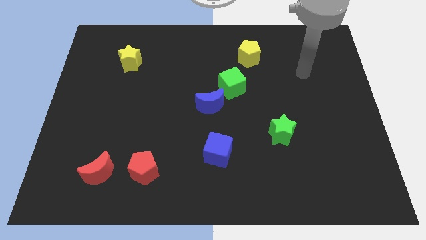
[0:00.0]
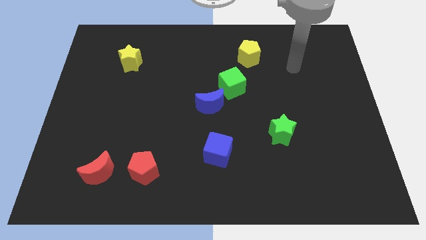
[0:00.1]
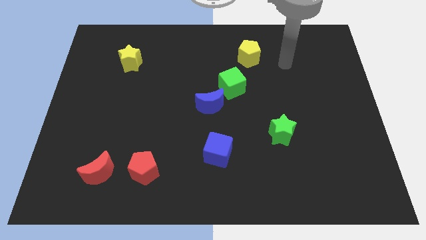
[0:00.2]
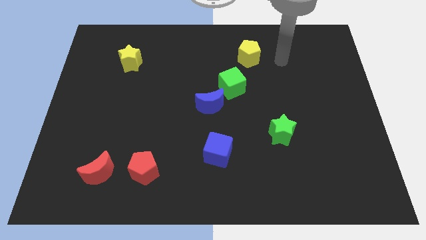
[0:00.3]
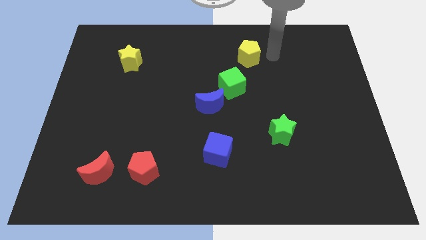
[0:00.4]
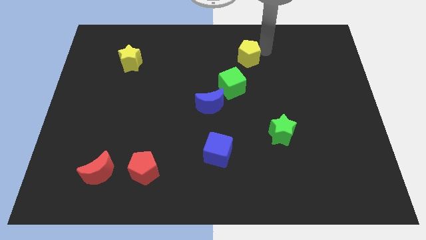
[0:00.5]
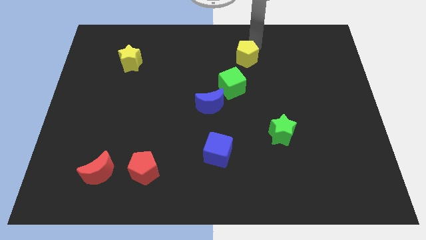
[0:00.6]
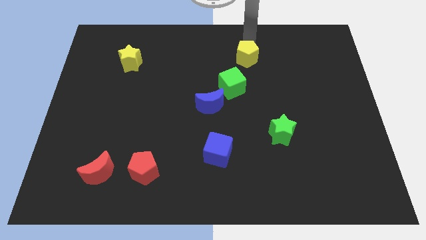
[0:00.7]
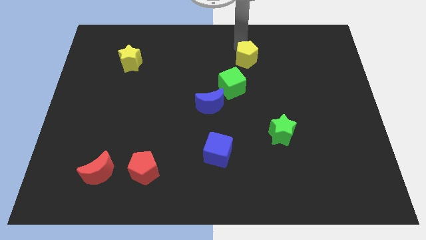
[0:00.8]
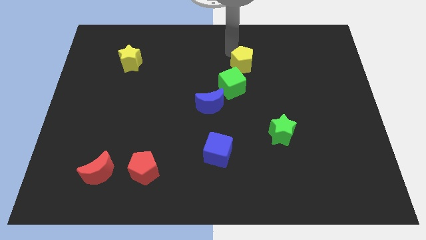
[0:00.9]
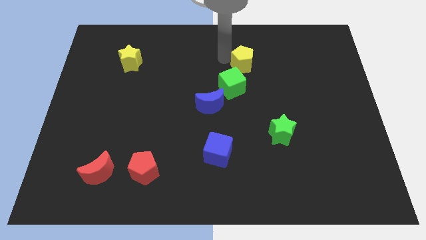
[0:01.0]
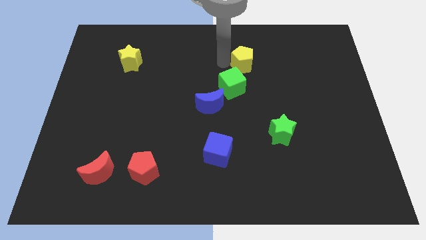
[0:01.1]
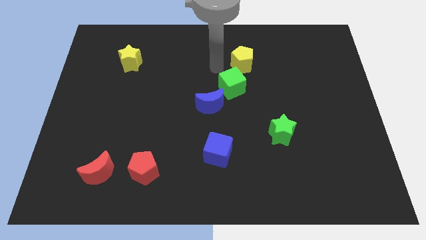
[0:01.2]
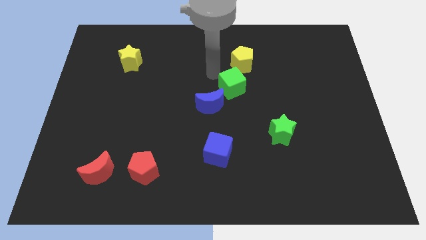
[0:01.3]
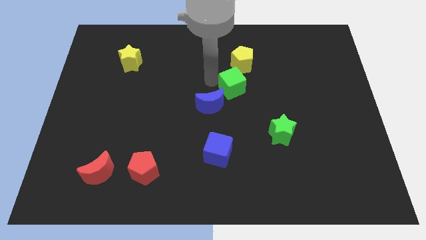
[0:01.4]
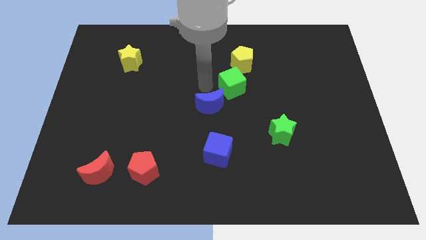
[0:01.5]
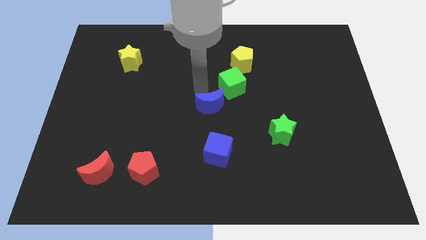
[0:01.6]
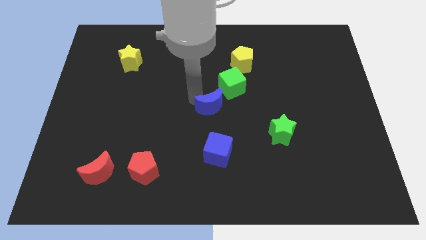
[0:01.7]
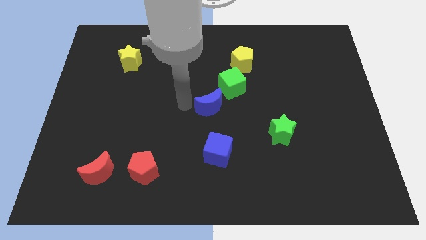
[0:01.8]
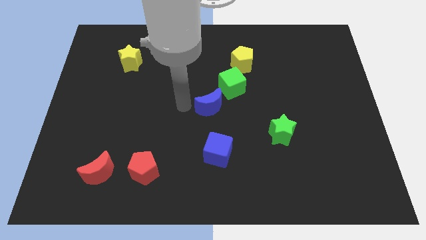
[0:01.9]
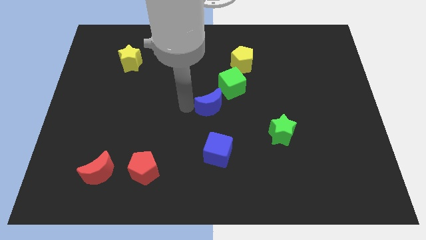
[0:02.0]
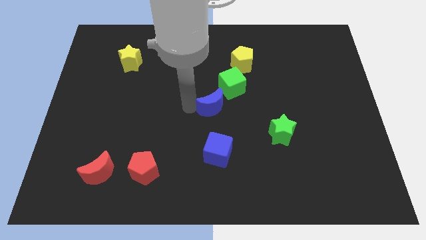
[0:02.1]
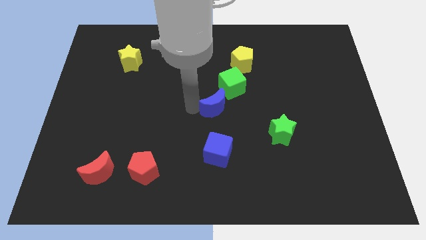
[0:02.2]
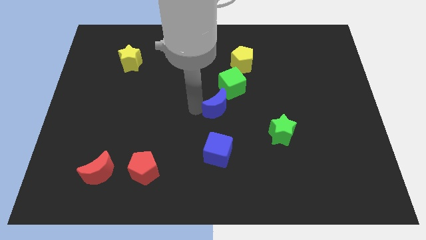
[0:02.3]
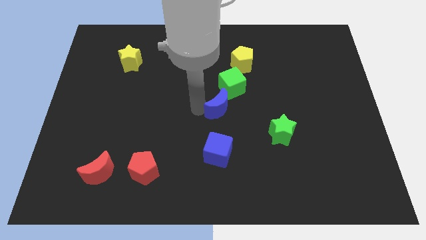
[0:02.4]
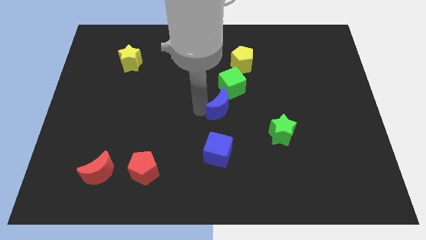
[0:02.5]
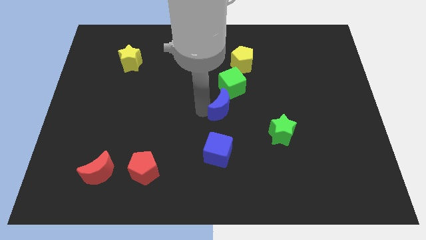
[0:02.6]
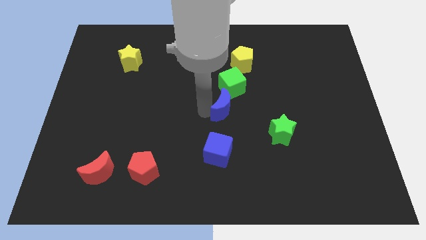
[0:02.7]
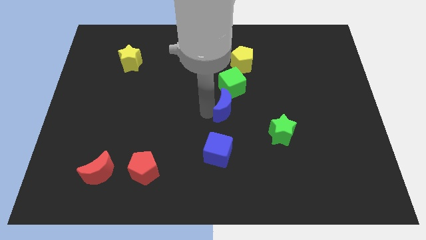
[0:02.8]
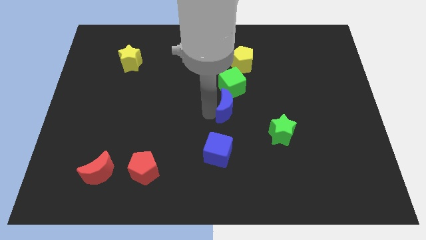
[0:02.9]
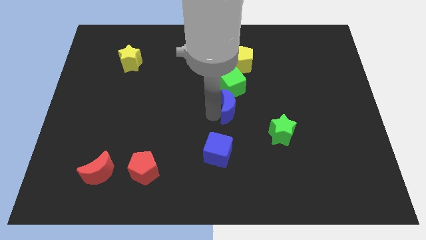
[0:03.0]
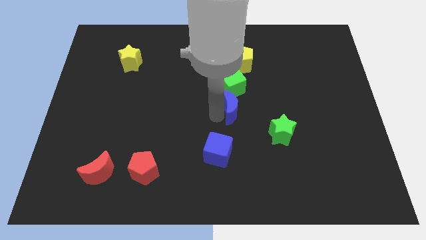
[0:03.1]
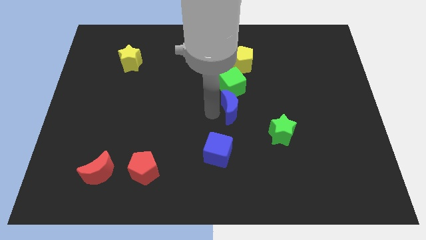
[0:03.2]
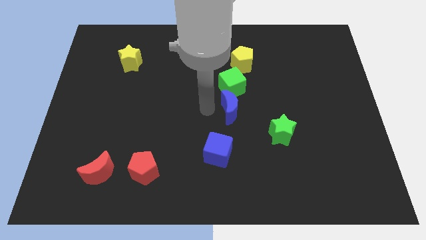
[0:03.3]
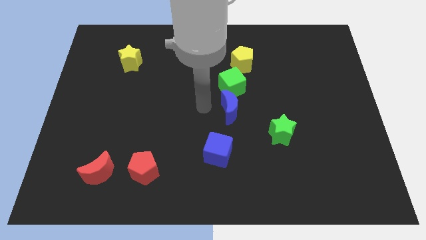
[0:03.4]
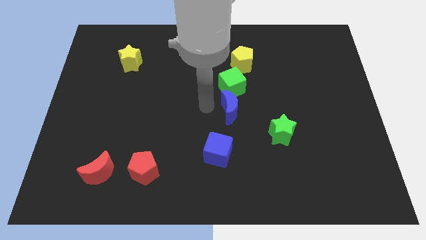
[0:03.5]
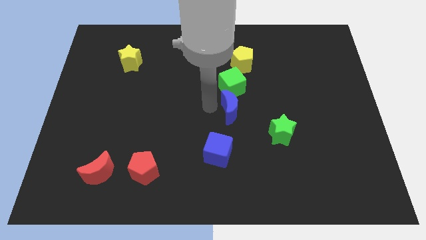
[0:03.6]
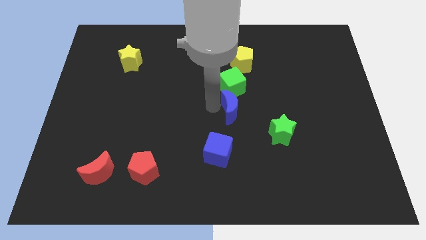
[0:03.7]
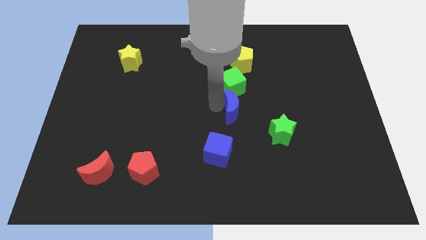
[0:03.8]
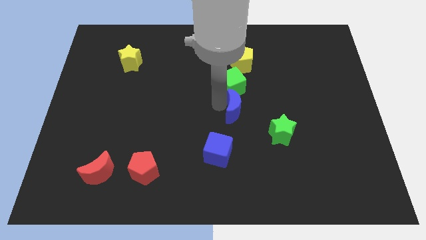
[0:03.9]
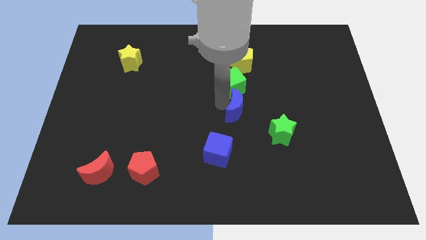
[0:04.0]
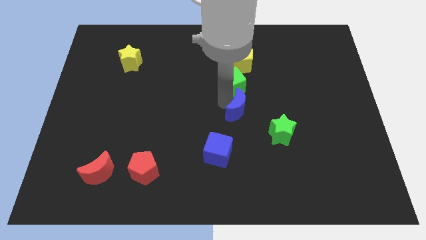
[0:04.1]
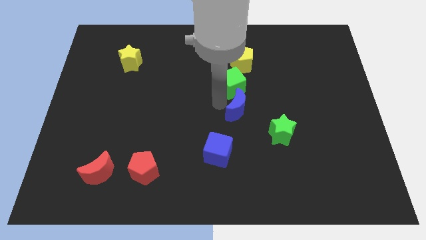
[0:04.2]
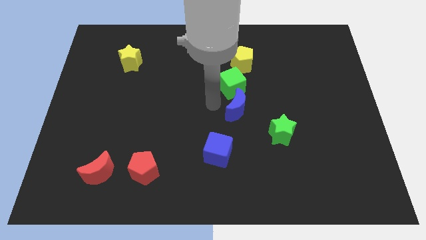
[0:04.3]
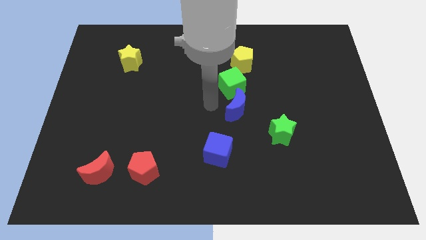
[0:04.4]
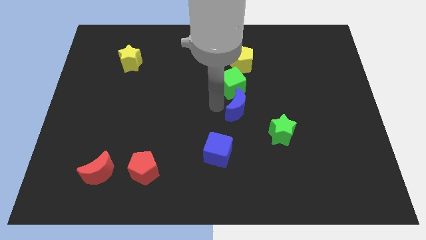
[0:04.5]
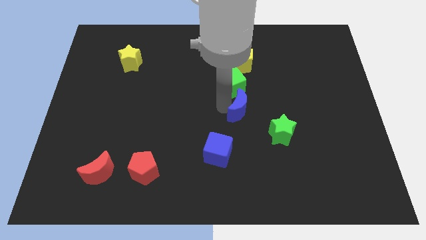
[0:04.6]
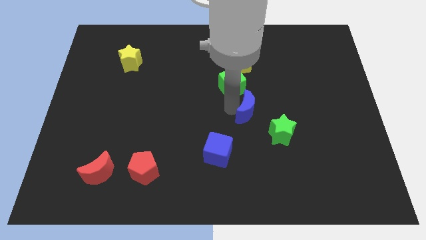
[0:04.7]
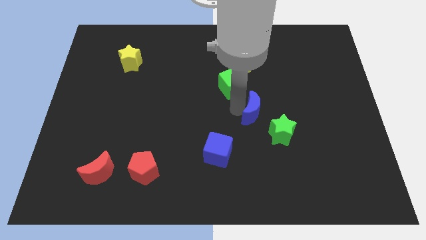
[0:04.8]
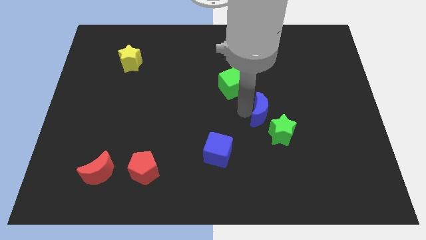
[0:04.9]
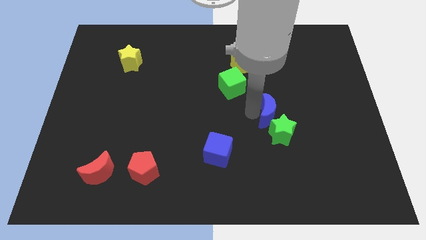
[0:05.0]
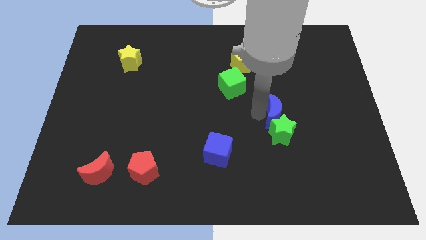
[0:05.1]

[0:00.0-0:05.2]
put the blue moon to the top right of the green star

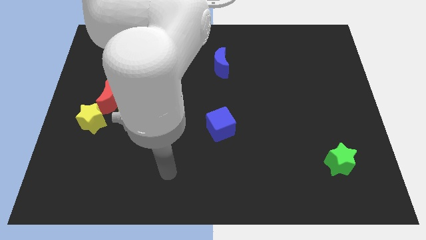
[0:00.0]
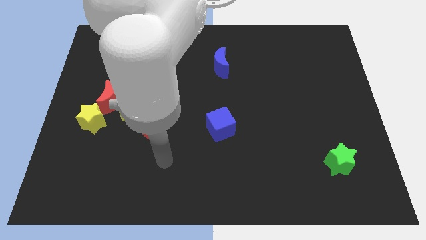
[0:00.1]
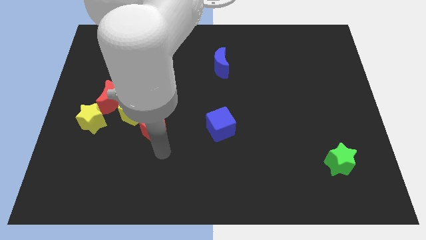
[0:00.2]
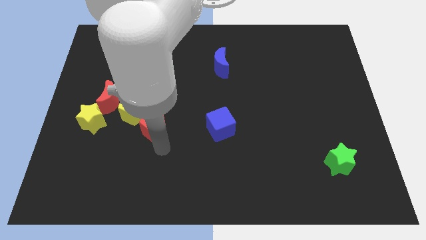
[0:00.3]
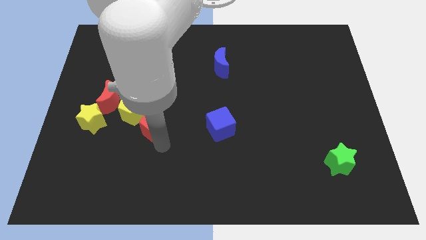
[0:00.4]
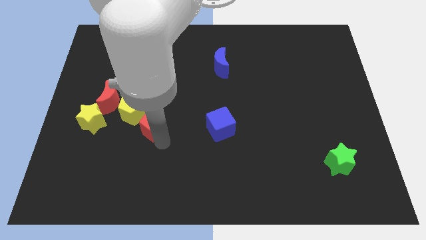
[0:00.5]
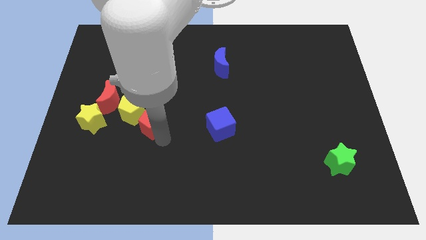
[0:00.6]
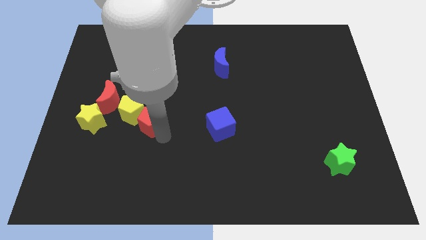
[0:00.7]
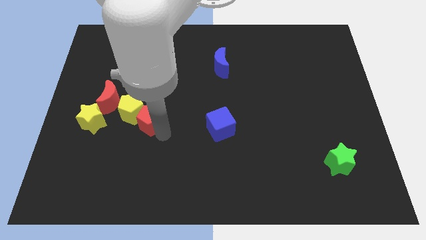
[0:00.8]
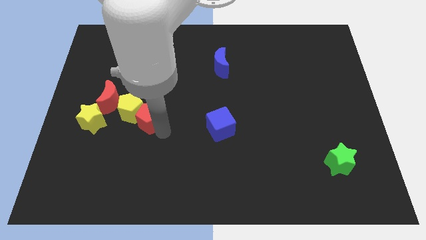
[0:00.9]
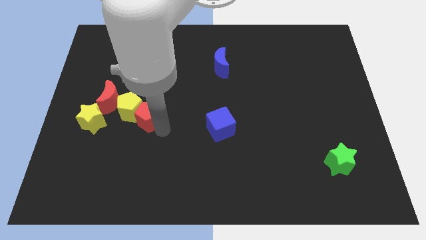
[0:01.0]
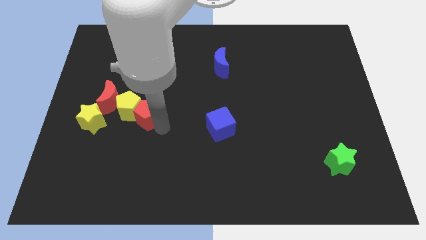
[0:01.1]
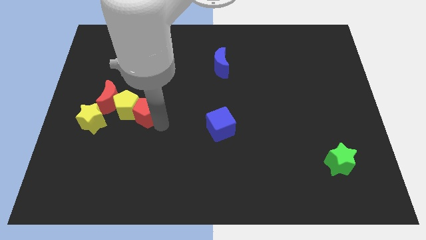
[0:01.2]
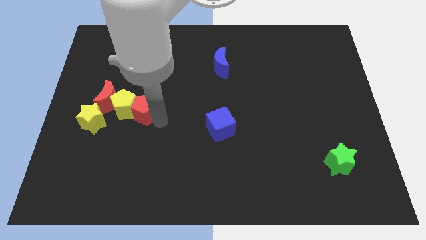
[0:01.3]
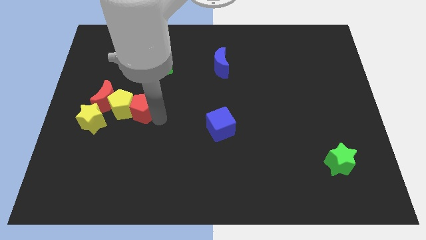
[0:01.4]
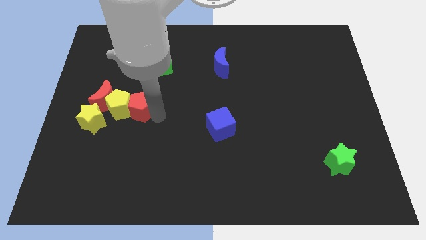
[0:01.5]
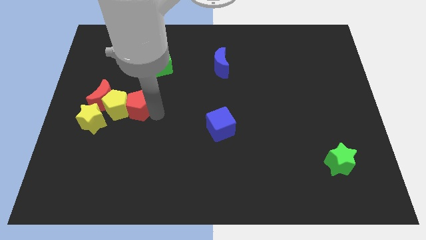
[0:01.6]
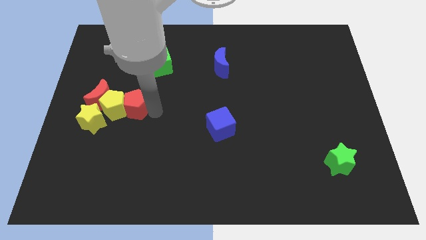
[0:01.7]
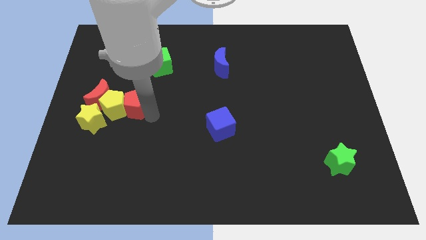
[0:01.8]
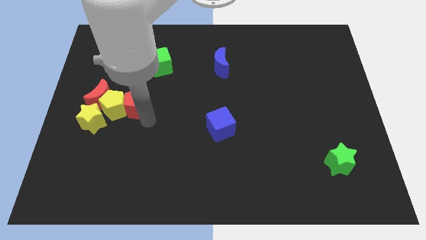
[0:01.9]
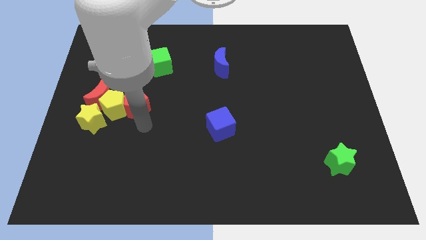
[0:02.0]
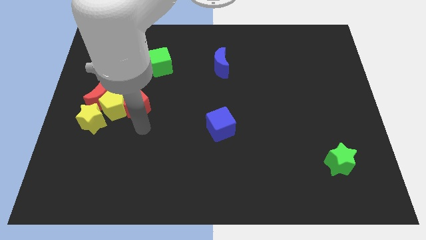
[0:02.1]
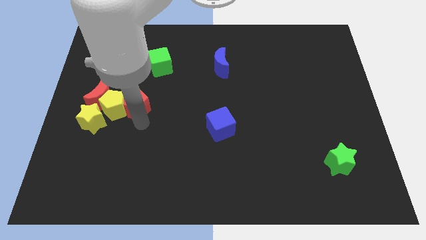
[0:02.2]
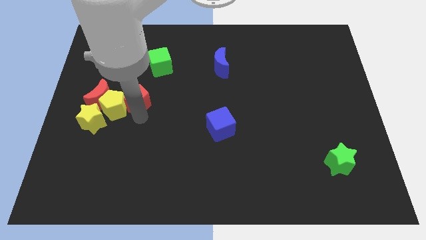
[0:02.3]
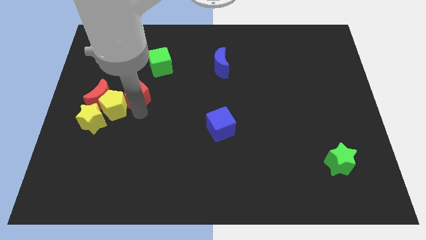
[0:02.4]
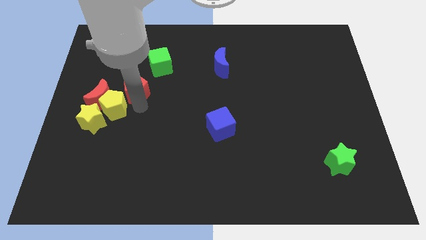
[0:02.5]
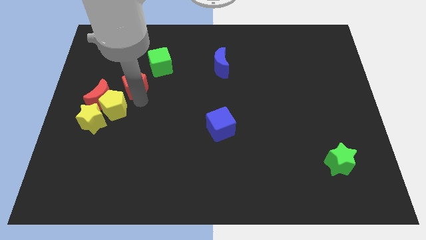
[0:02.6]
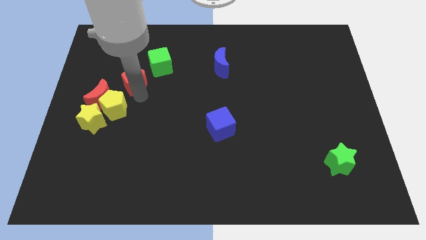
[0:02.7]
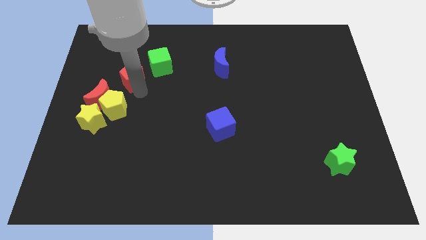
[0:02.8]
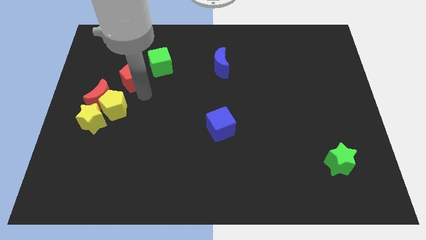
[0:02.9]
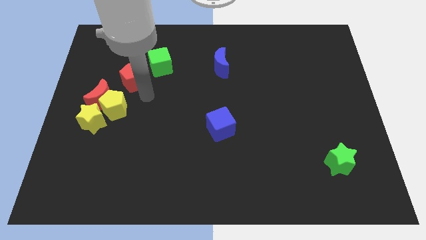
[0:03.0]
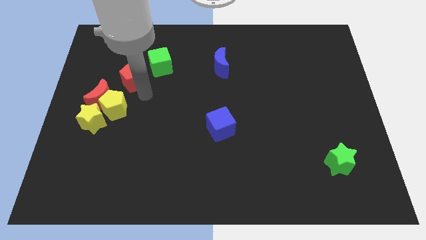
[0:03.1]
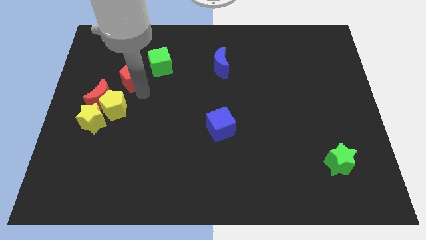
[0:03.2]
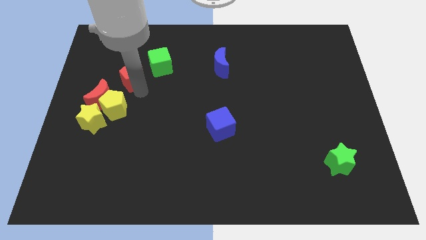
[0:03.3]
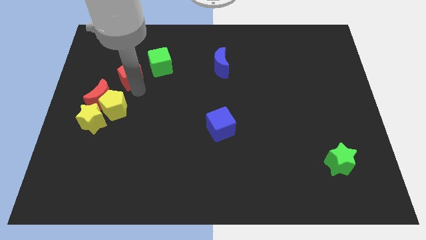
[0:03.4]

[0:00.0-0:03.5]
push the red pentagon left of the green cube
